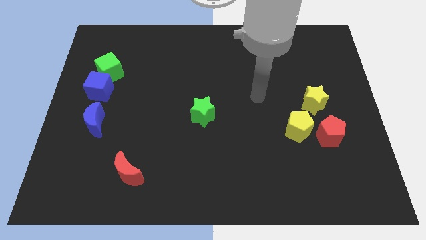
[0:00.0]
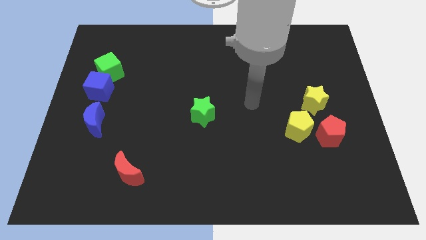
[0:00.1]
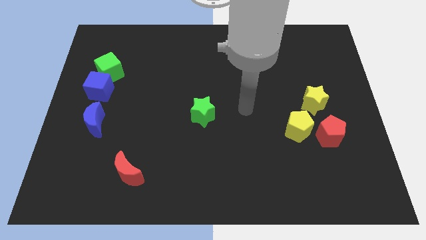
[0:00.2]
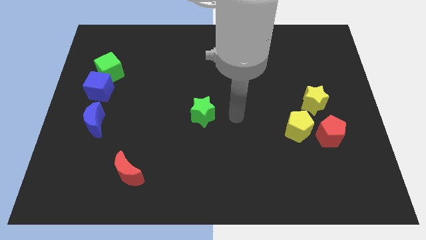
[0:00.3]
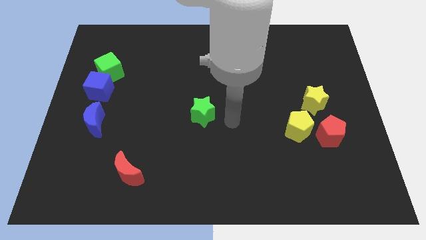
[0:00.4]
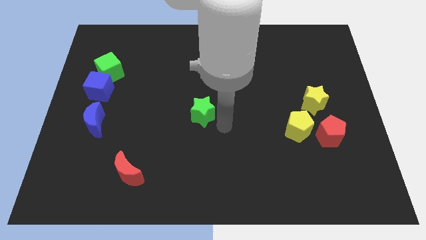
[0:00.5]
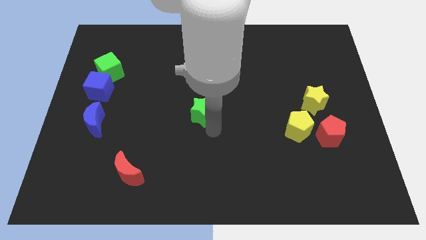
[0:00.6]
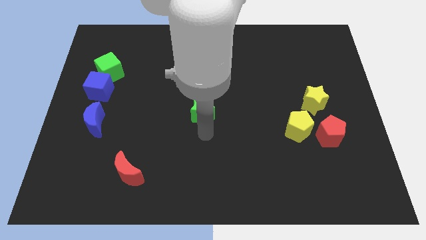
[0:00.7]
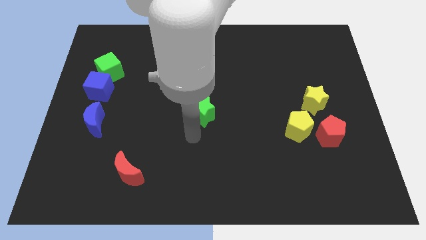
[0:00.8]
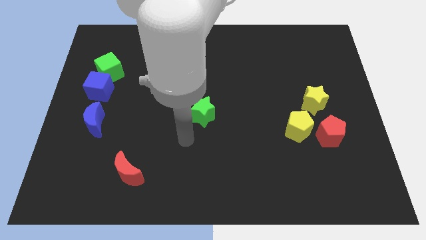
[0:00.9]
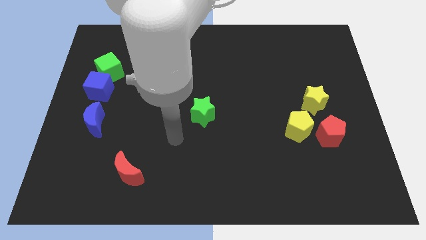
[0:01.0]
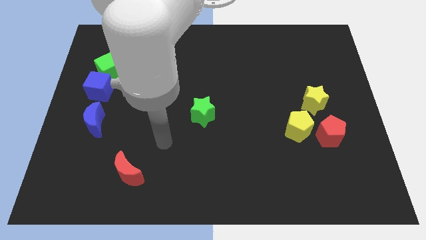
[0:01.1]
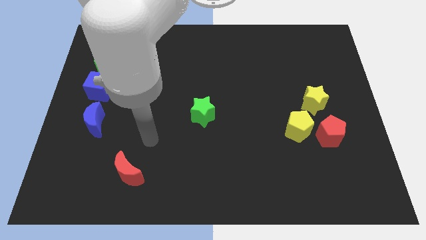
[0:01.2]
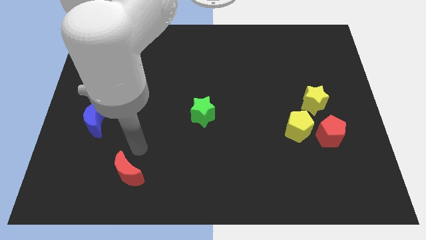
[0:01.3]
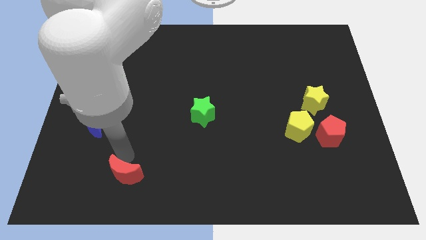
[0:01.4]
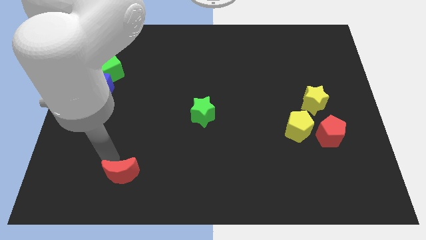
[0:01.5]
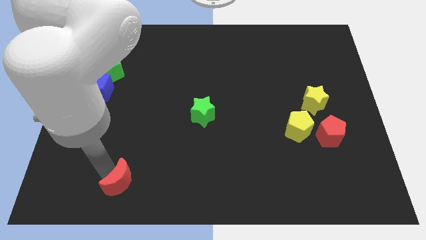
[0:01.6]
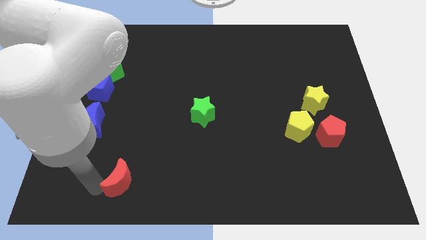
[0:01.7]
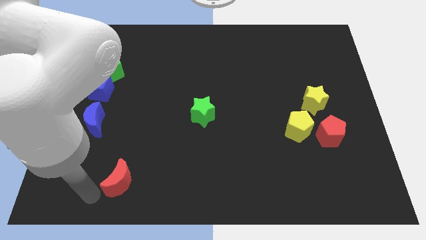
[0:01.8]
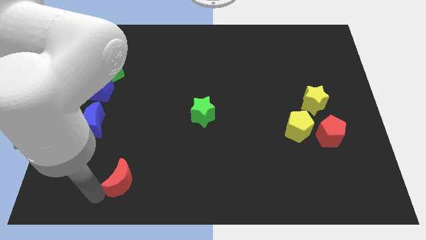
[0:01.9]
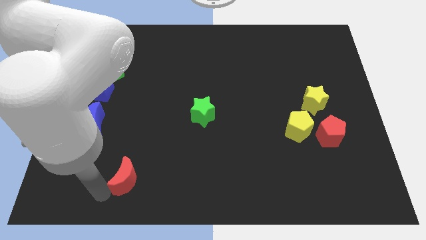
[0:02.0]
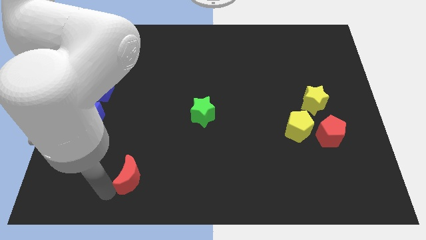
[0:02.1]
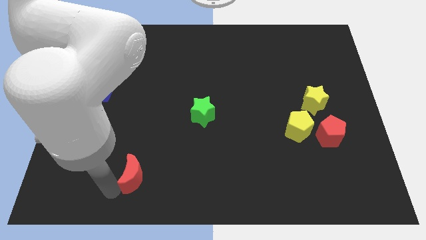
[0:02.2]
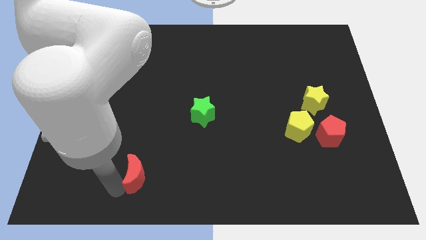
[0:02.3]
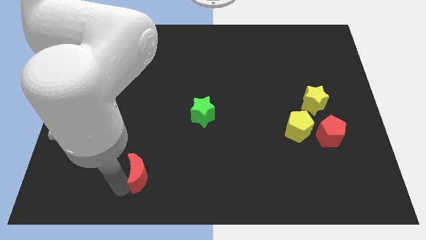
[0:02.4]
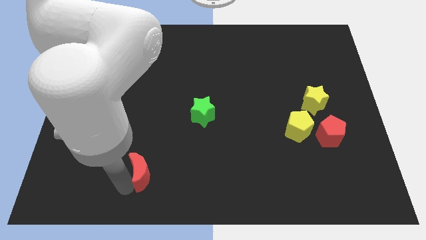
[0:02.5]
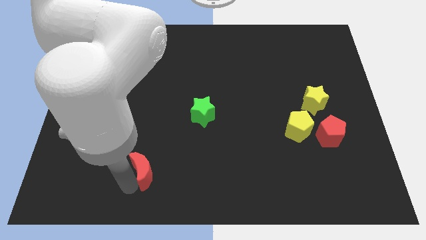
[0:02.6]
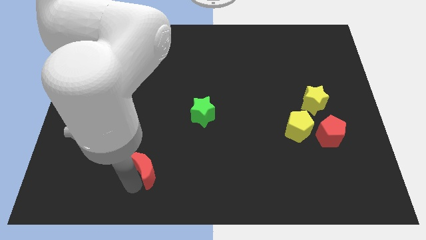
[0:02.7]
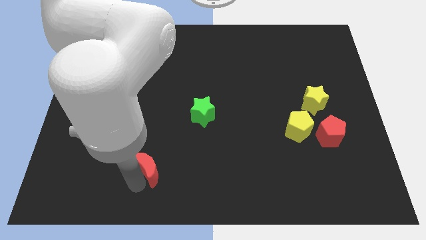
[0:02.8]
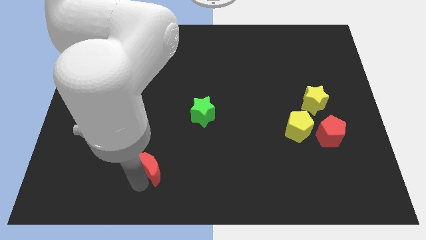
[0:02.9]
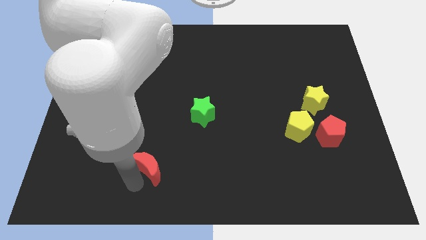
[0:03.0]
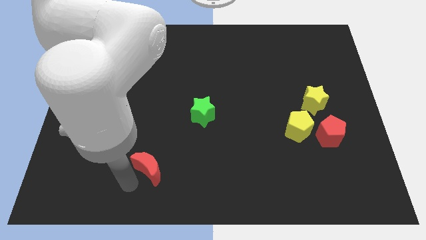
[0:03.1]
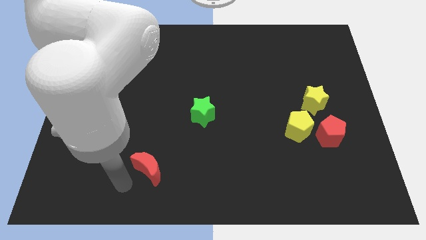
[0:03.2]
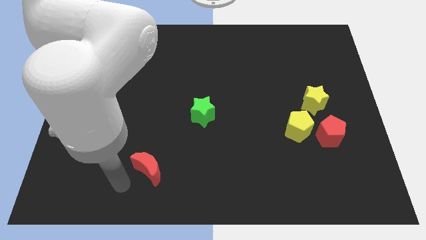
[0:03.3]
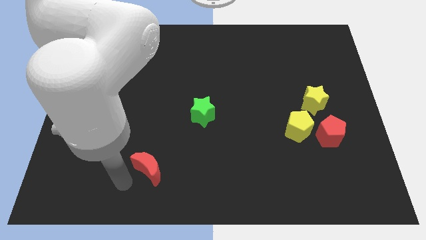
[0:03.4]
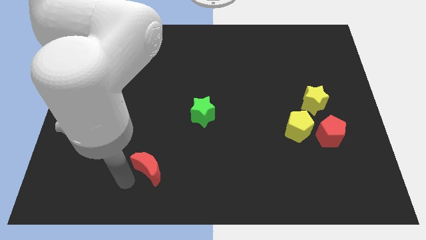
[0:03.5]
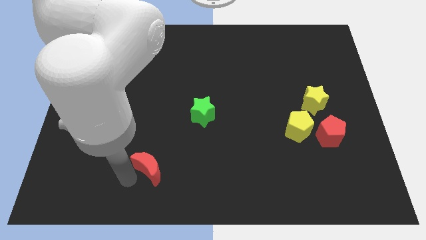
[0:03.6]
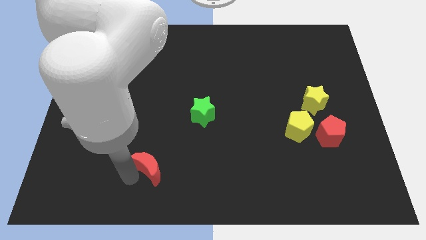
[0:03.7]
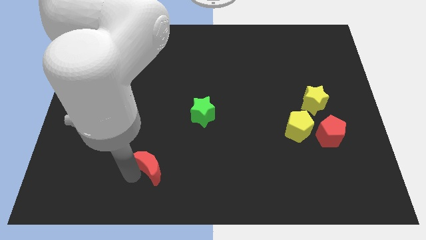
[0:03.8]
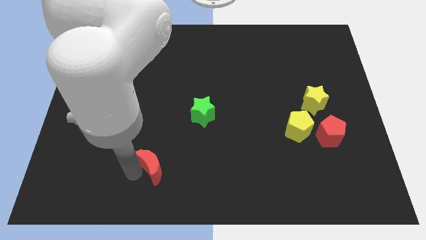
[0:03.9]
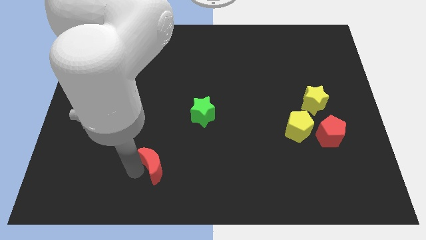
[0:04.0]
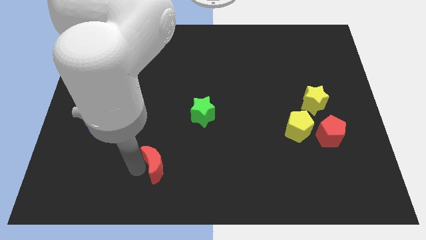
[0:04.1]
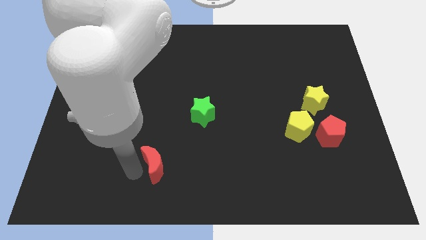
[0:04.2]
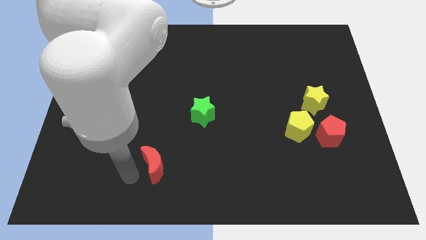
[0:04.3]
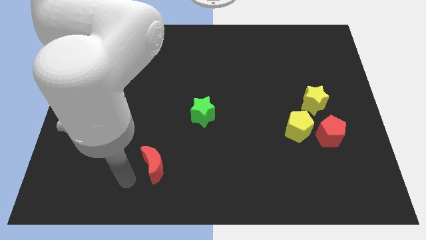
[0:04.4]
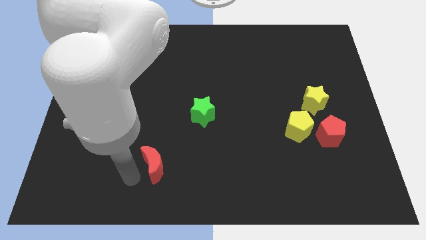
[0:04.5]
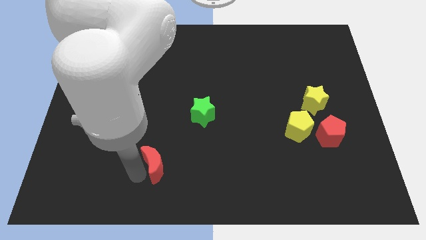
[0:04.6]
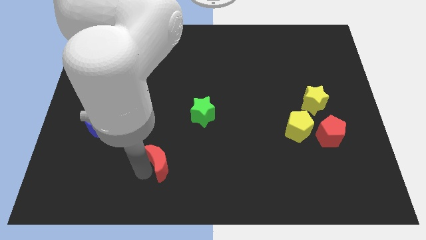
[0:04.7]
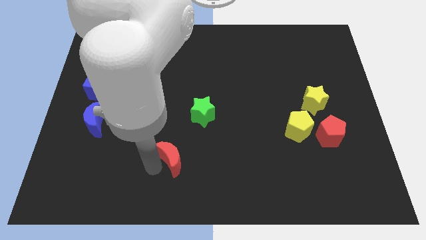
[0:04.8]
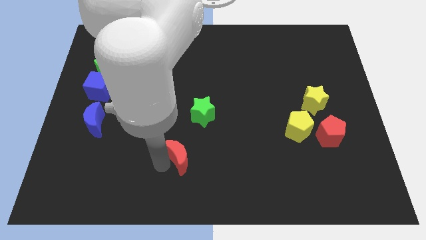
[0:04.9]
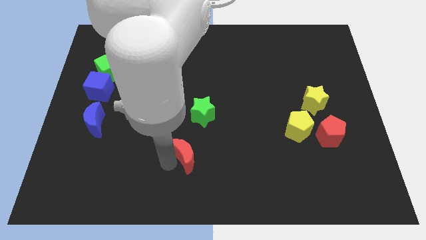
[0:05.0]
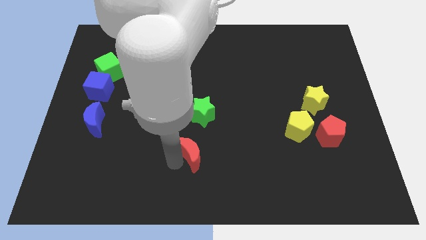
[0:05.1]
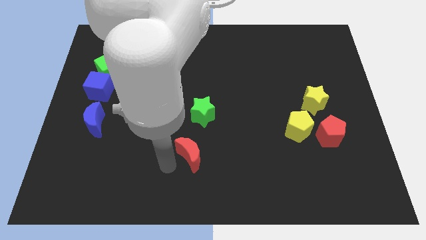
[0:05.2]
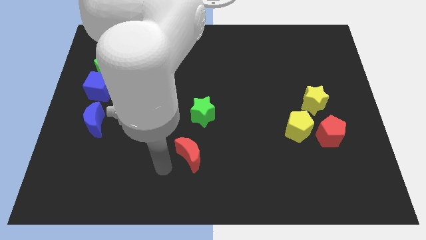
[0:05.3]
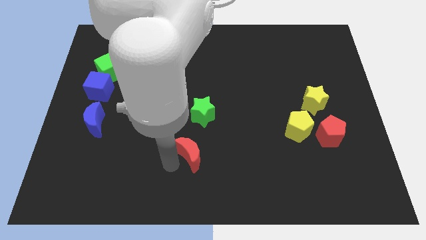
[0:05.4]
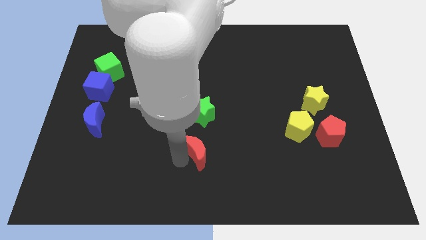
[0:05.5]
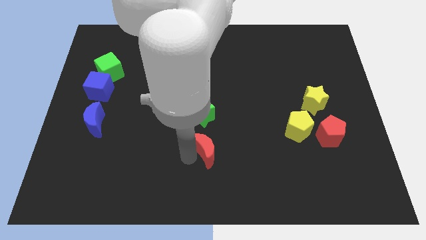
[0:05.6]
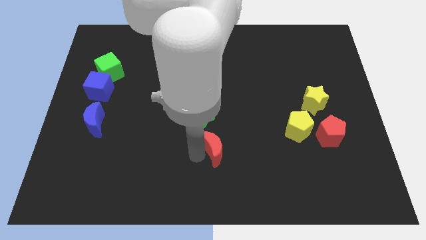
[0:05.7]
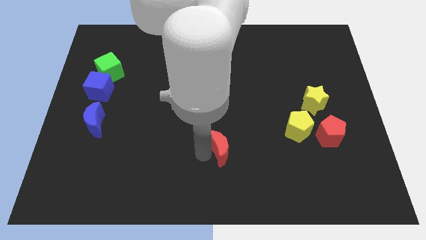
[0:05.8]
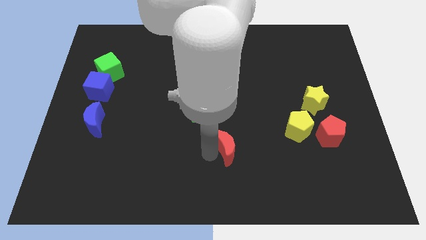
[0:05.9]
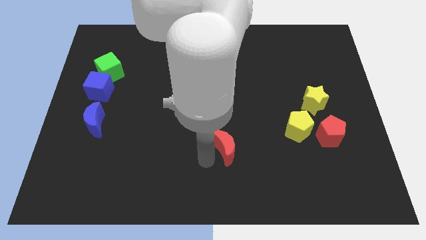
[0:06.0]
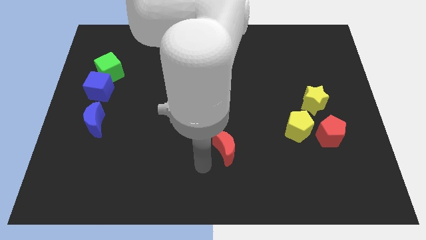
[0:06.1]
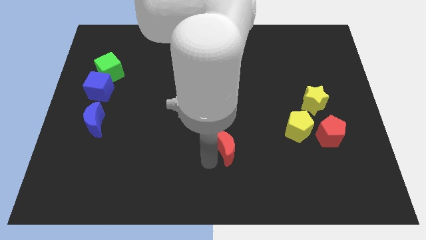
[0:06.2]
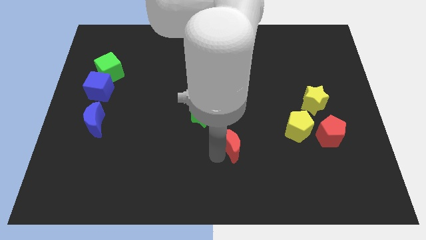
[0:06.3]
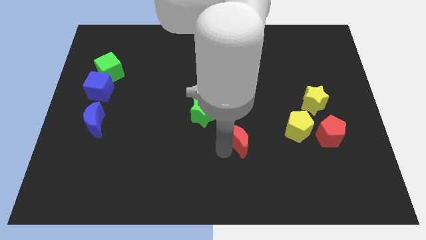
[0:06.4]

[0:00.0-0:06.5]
move the red moon left of the yellow pentagon
